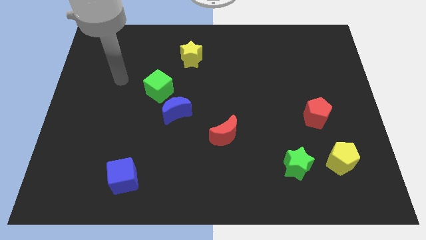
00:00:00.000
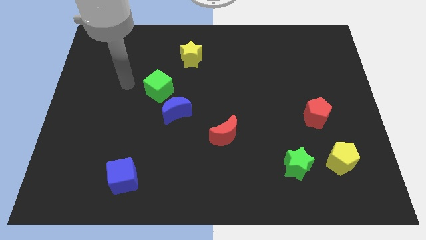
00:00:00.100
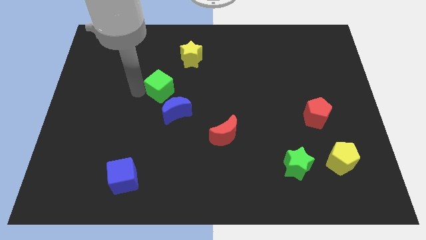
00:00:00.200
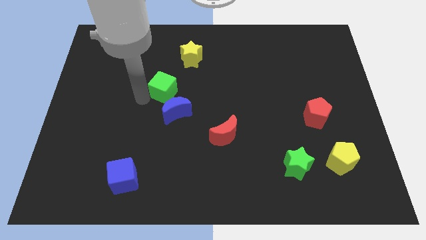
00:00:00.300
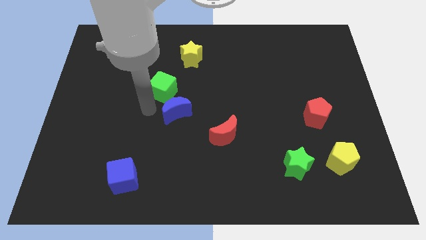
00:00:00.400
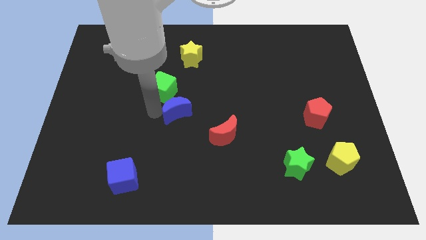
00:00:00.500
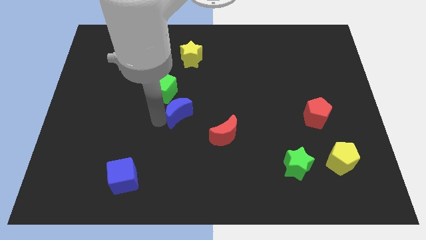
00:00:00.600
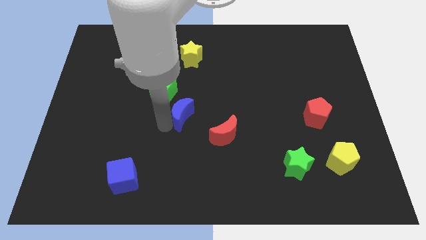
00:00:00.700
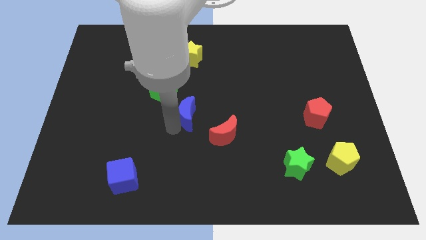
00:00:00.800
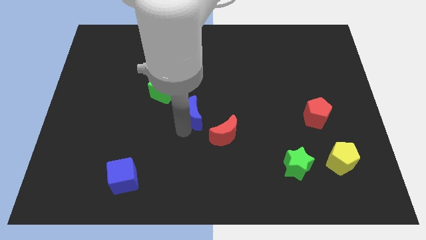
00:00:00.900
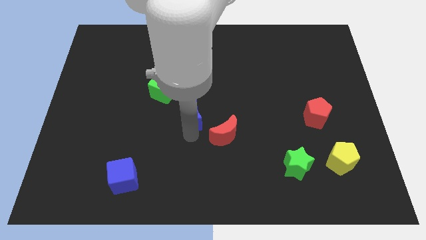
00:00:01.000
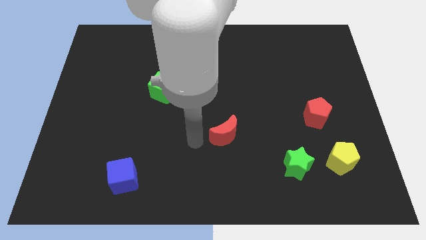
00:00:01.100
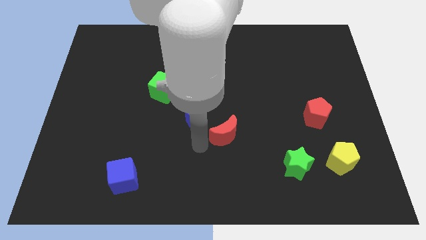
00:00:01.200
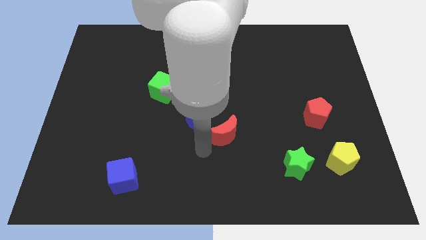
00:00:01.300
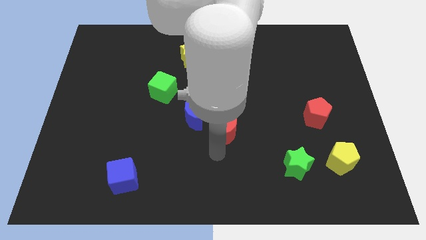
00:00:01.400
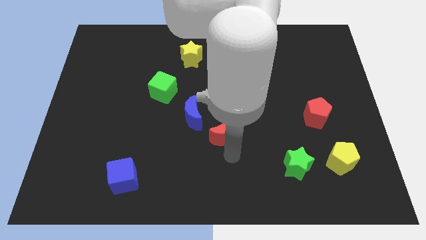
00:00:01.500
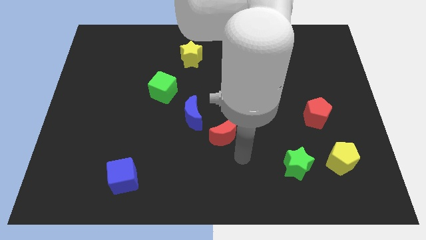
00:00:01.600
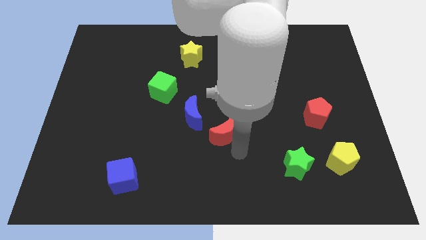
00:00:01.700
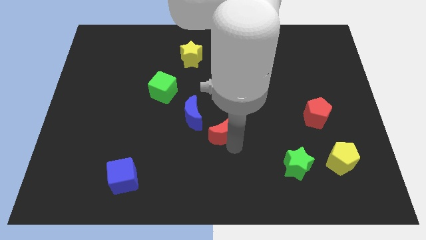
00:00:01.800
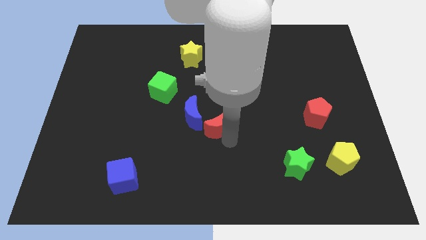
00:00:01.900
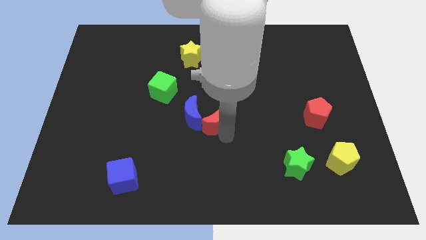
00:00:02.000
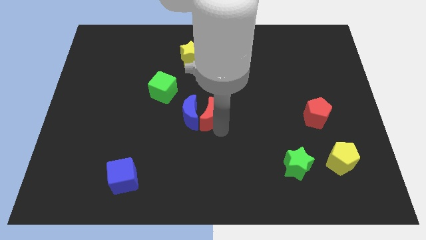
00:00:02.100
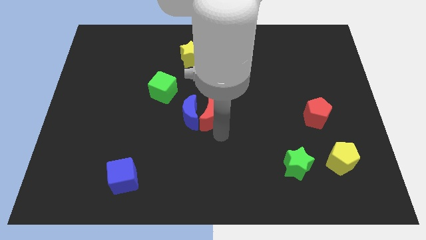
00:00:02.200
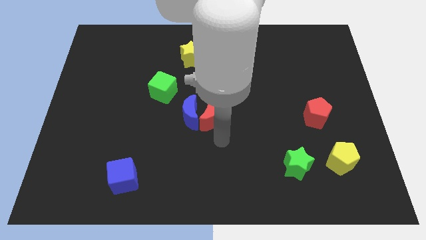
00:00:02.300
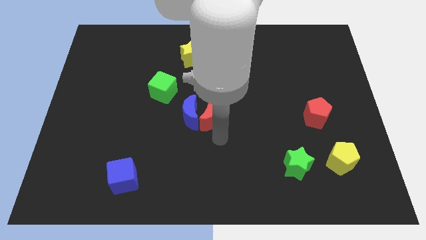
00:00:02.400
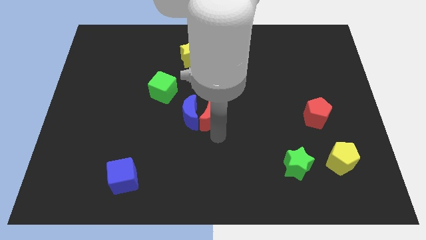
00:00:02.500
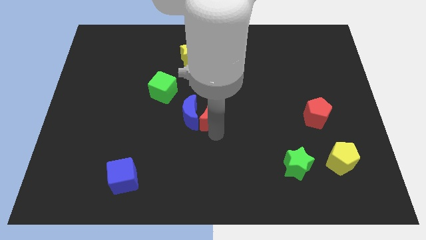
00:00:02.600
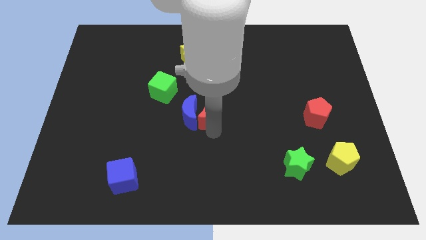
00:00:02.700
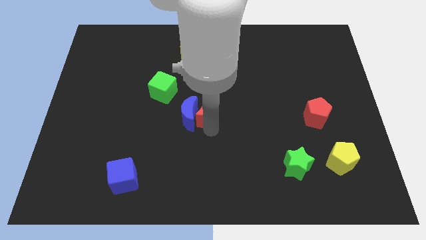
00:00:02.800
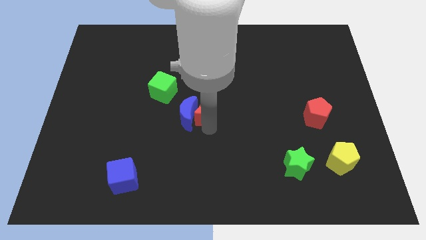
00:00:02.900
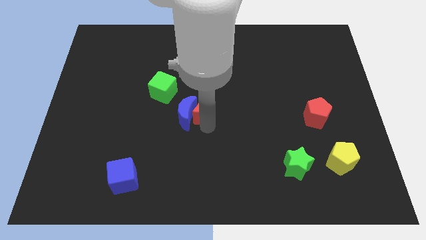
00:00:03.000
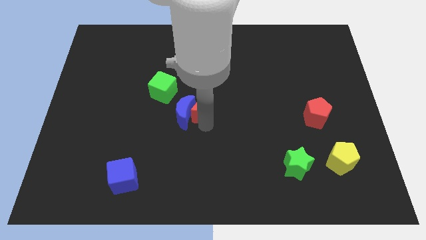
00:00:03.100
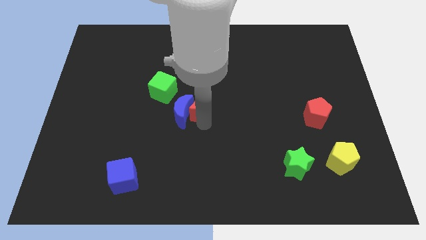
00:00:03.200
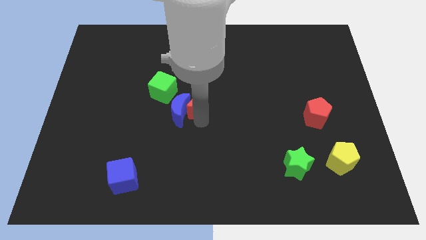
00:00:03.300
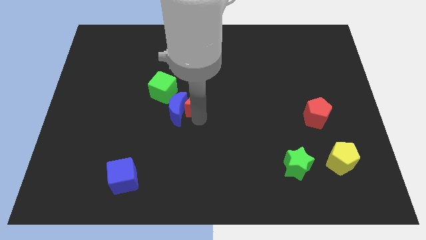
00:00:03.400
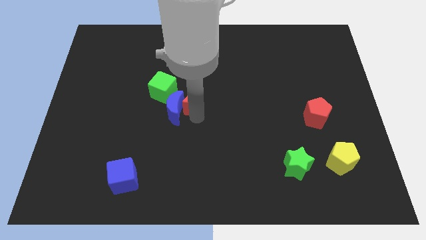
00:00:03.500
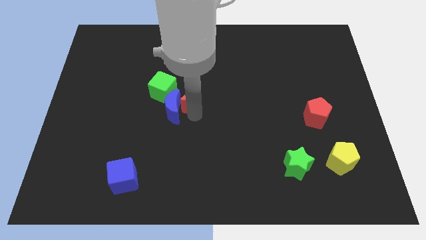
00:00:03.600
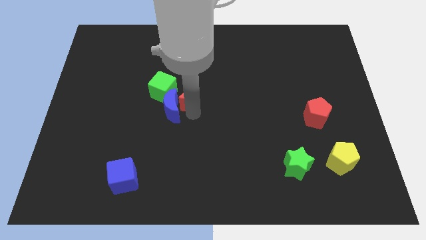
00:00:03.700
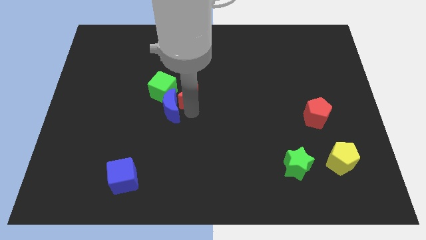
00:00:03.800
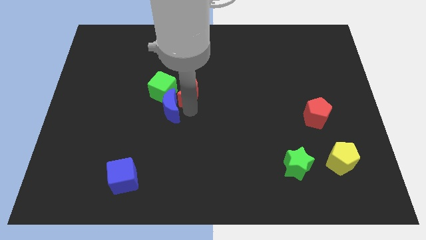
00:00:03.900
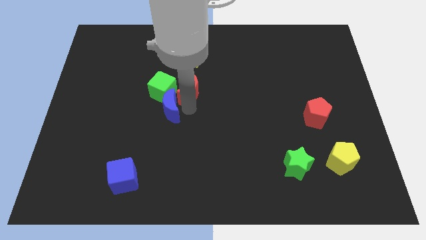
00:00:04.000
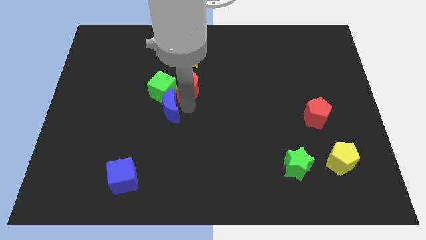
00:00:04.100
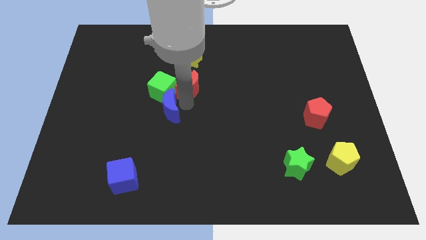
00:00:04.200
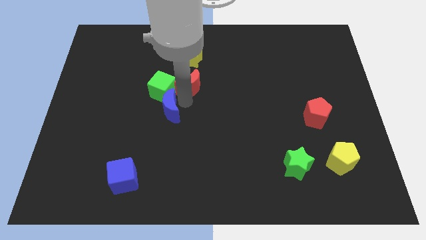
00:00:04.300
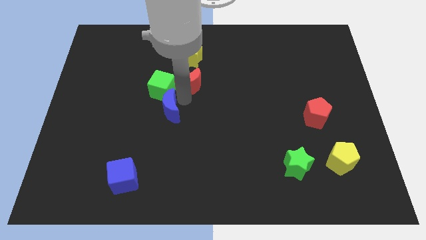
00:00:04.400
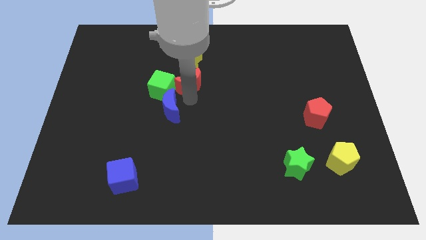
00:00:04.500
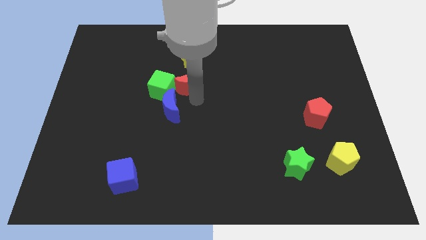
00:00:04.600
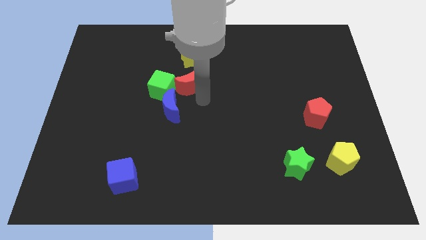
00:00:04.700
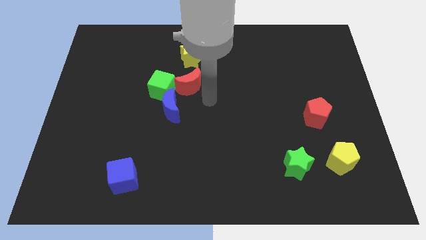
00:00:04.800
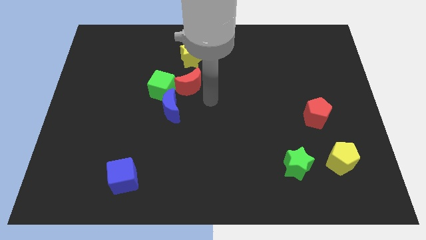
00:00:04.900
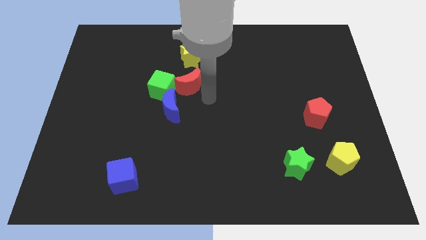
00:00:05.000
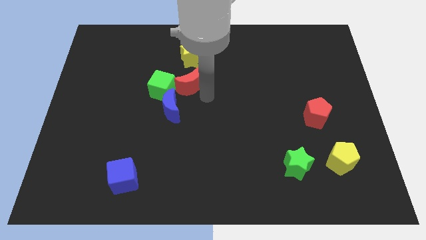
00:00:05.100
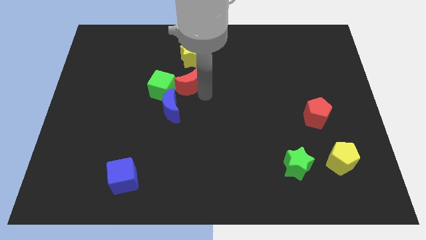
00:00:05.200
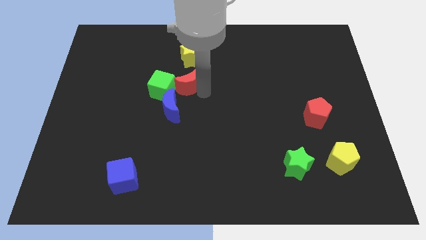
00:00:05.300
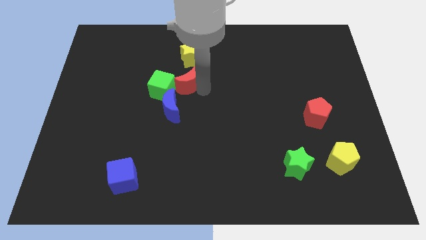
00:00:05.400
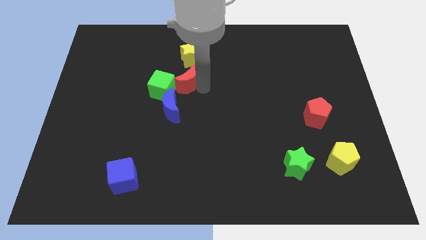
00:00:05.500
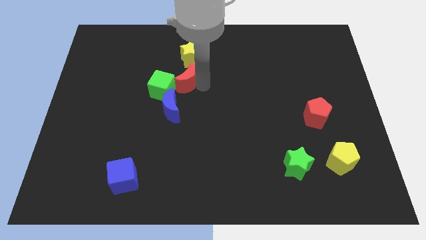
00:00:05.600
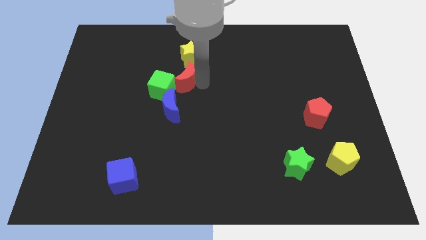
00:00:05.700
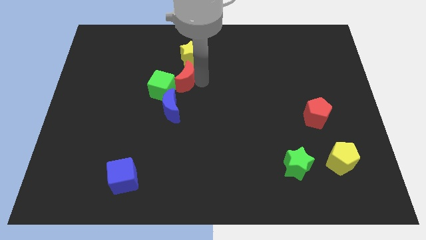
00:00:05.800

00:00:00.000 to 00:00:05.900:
slide the red moon to the bottom left side of the yellow star
